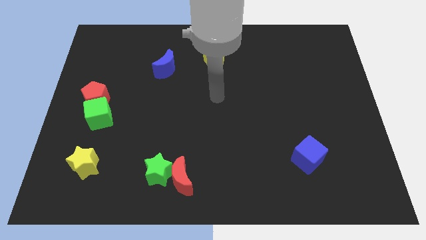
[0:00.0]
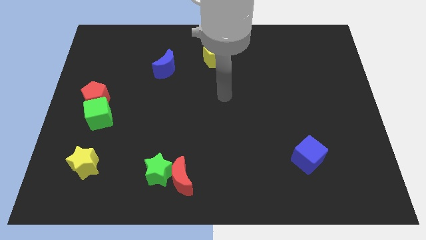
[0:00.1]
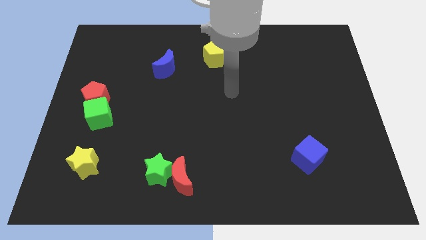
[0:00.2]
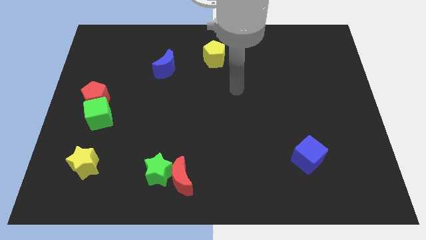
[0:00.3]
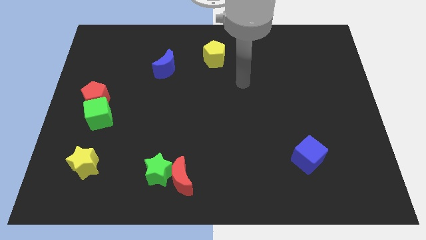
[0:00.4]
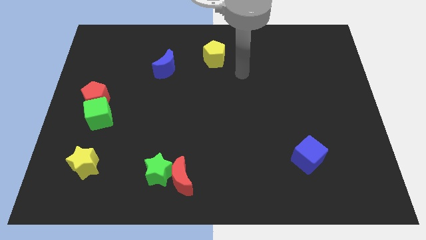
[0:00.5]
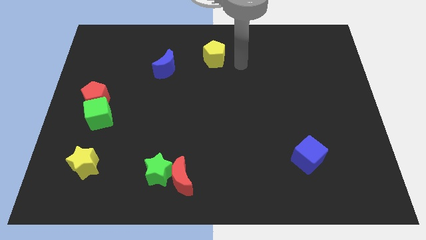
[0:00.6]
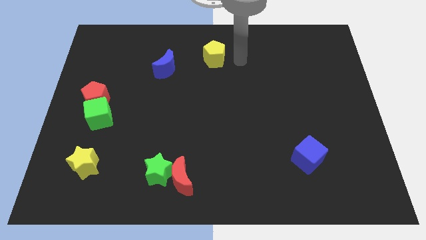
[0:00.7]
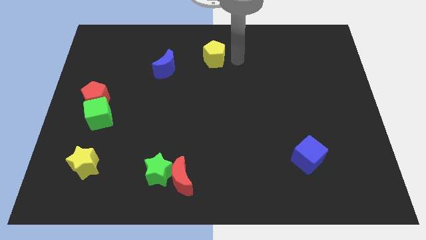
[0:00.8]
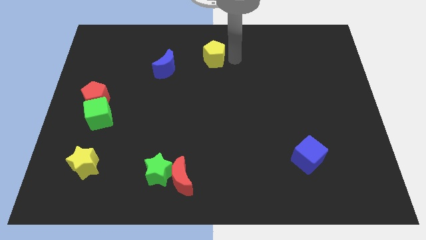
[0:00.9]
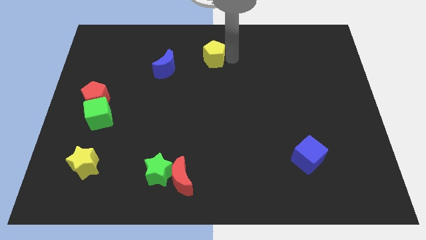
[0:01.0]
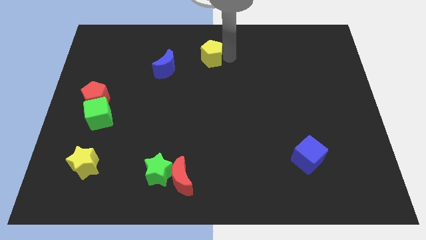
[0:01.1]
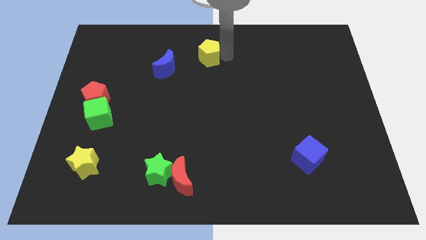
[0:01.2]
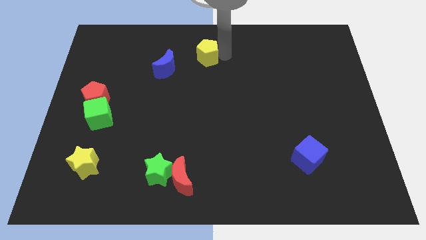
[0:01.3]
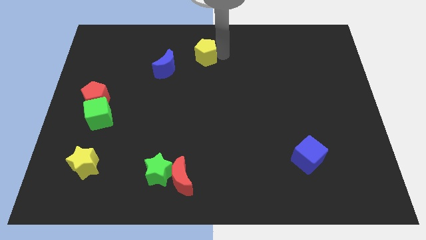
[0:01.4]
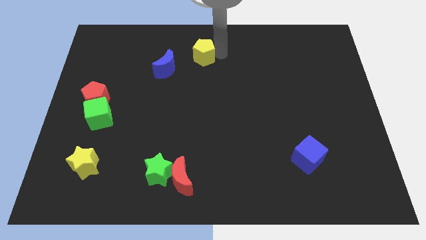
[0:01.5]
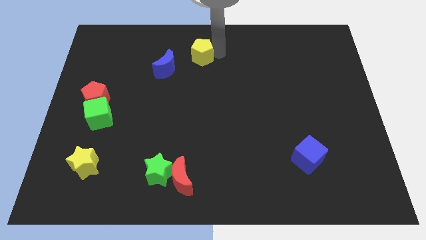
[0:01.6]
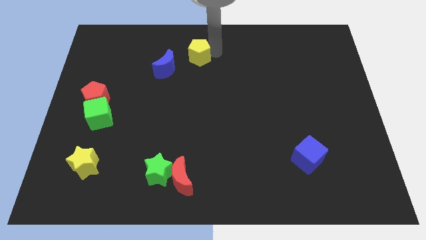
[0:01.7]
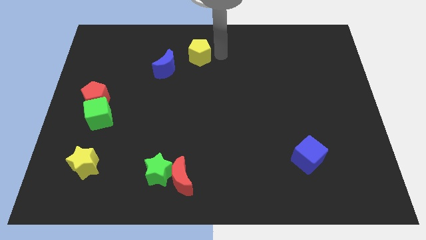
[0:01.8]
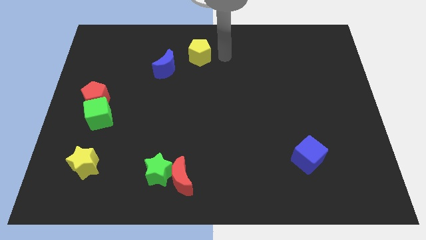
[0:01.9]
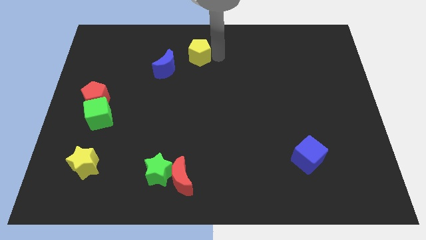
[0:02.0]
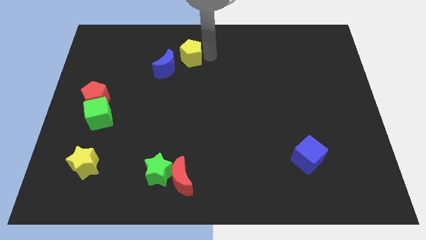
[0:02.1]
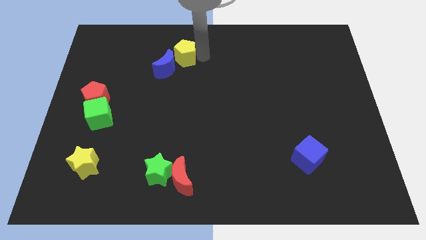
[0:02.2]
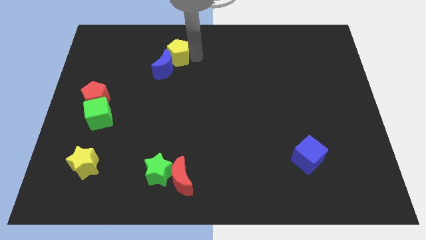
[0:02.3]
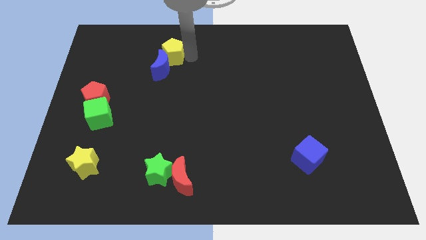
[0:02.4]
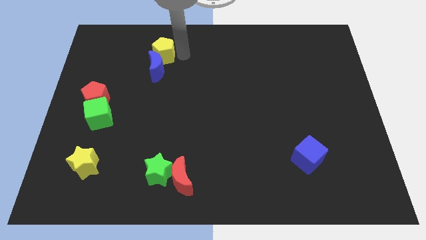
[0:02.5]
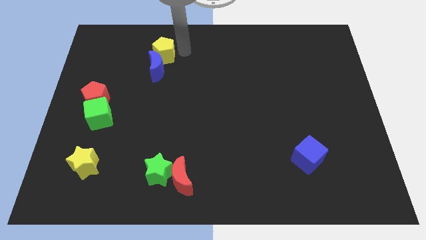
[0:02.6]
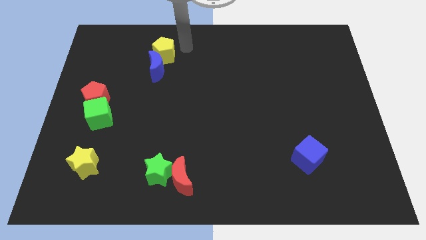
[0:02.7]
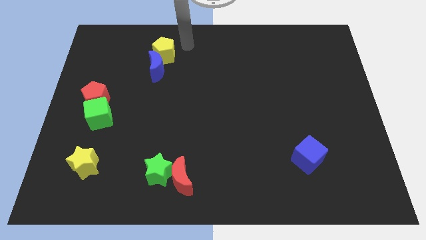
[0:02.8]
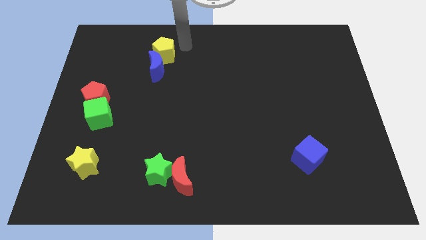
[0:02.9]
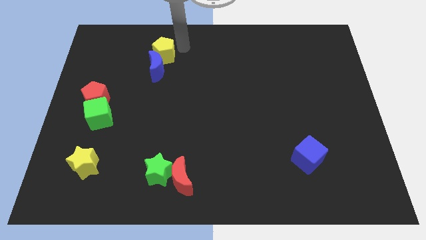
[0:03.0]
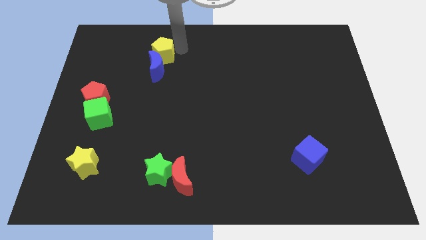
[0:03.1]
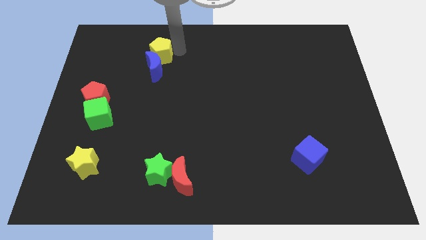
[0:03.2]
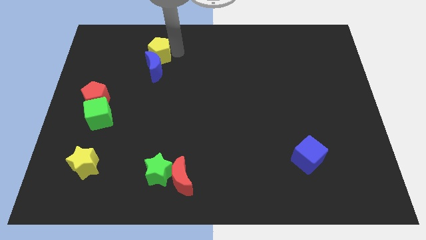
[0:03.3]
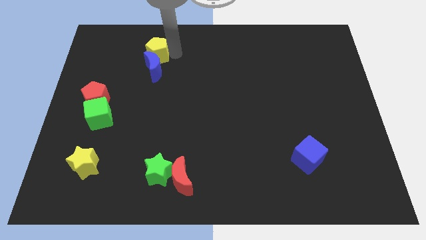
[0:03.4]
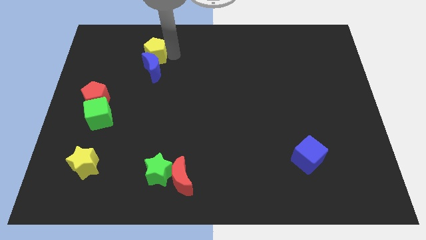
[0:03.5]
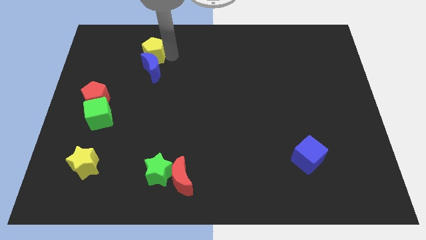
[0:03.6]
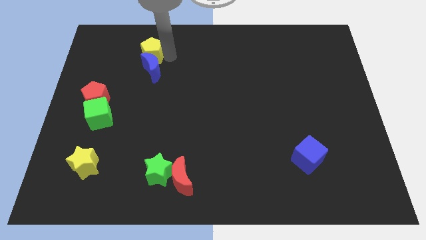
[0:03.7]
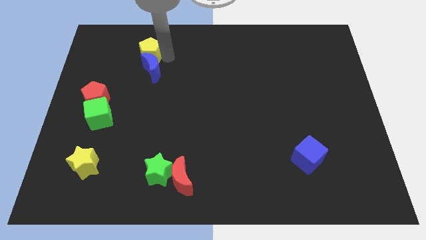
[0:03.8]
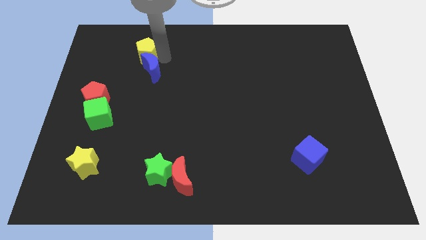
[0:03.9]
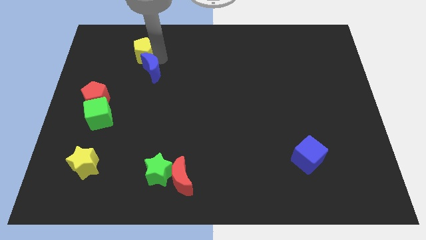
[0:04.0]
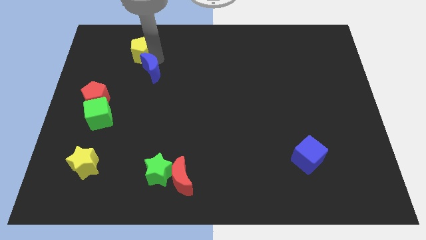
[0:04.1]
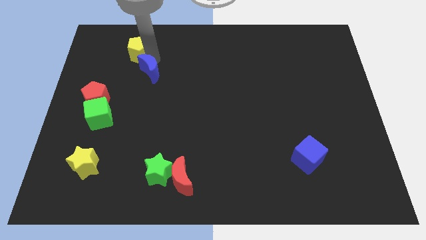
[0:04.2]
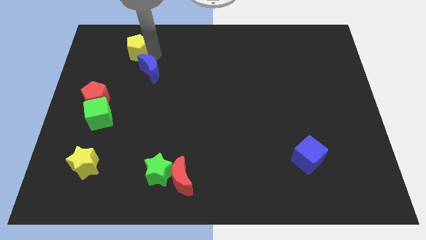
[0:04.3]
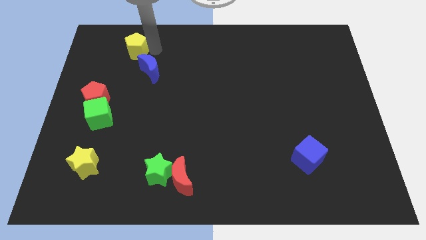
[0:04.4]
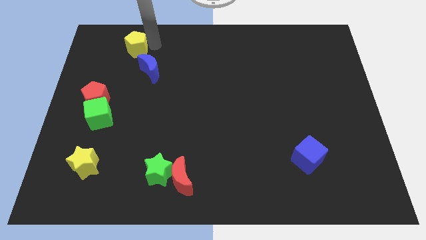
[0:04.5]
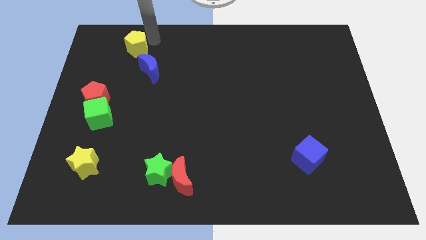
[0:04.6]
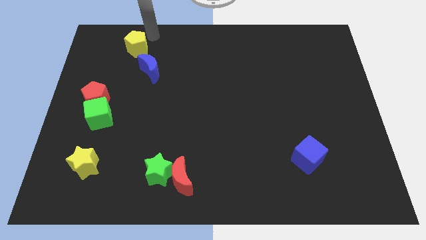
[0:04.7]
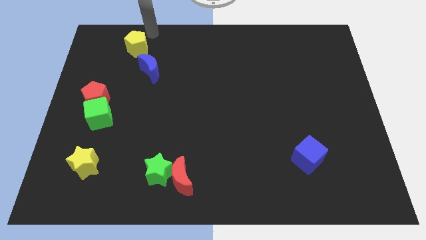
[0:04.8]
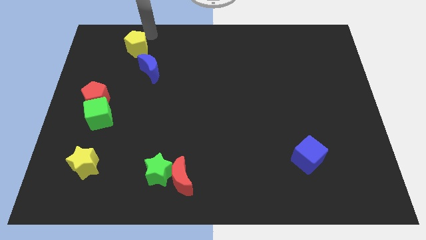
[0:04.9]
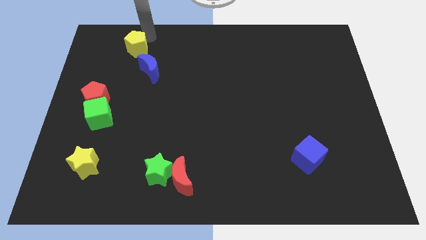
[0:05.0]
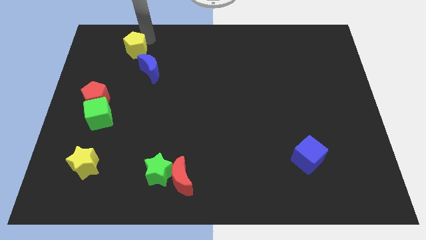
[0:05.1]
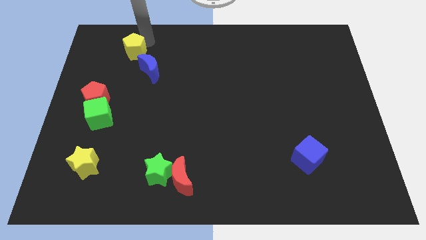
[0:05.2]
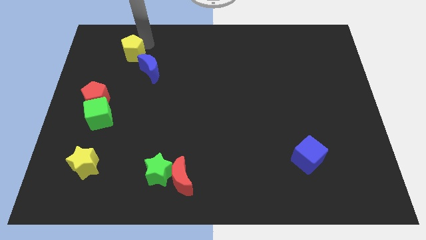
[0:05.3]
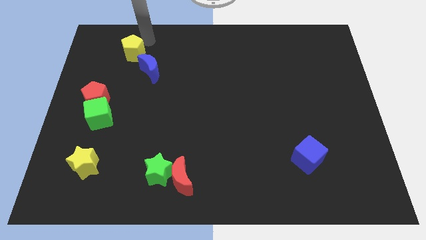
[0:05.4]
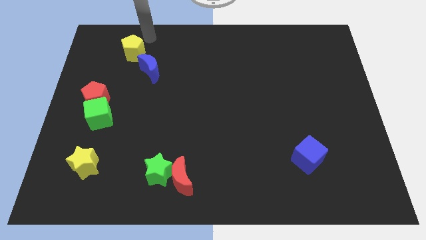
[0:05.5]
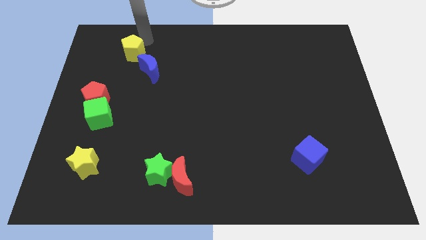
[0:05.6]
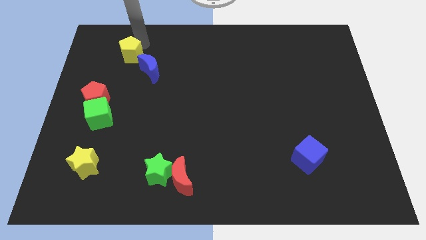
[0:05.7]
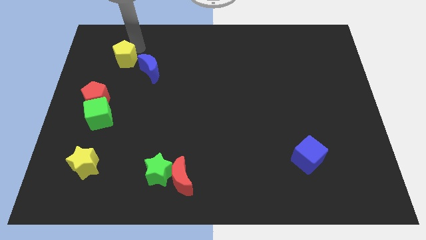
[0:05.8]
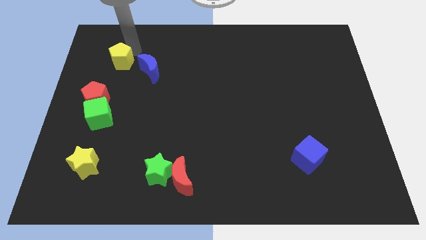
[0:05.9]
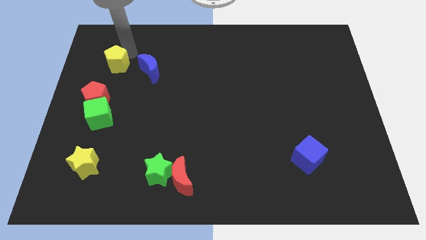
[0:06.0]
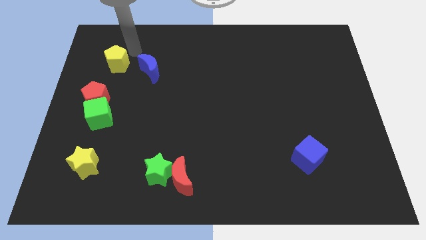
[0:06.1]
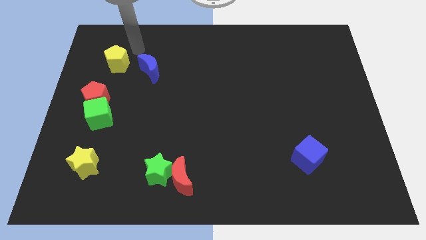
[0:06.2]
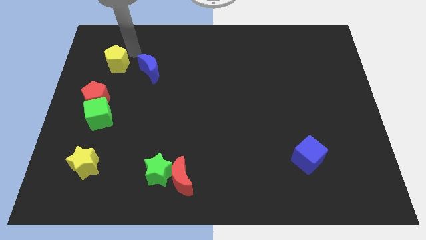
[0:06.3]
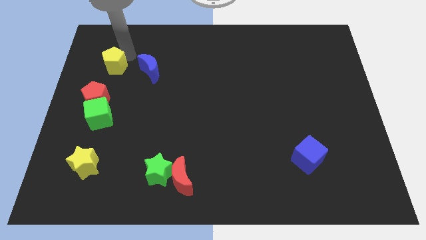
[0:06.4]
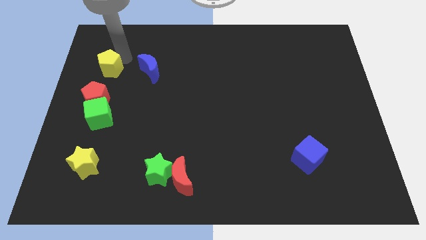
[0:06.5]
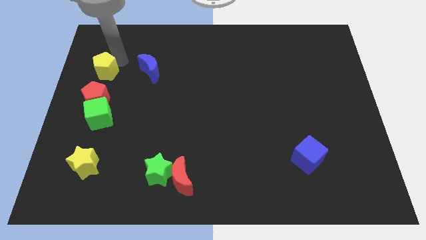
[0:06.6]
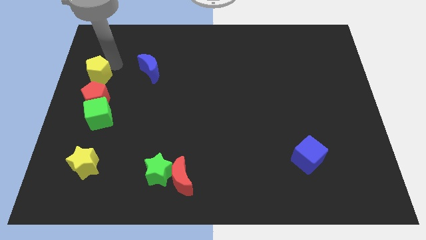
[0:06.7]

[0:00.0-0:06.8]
move the yellow pentagon to the center left
